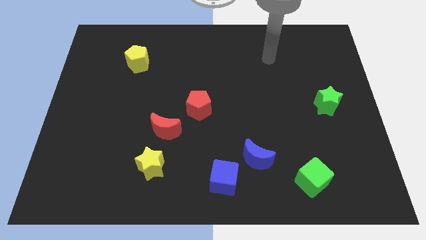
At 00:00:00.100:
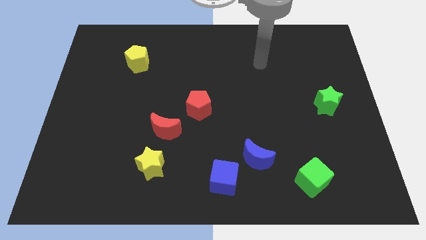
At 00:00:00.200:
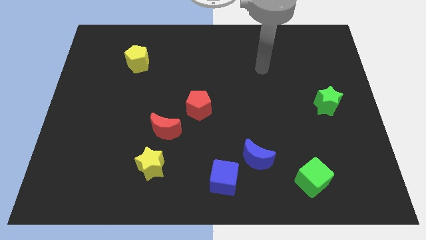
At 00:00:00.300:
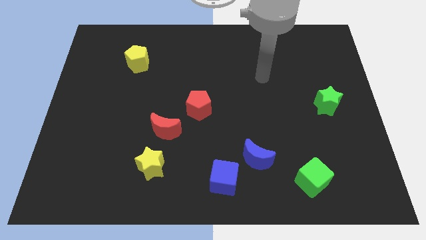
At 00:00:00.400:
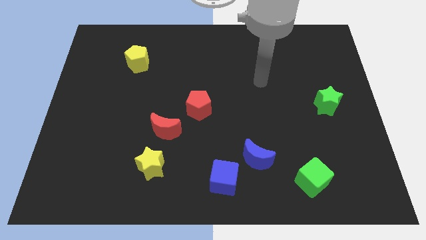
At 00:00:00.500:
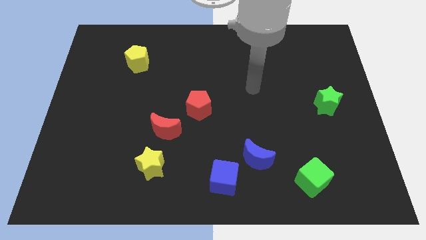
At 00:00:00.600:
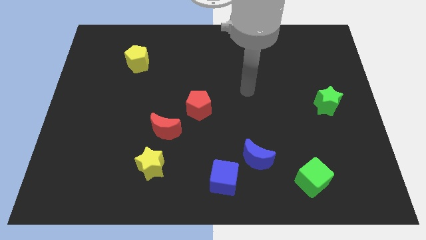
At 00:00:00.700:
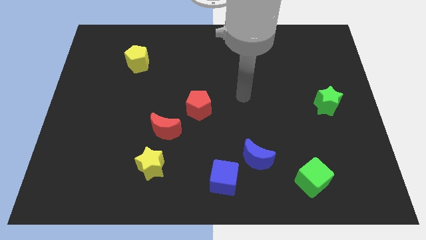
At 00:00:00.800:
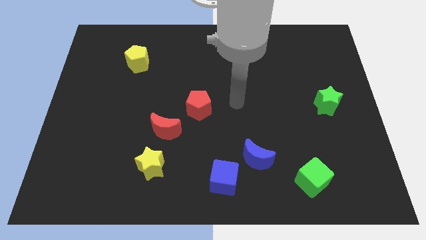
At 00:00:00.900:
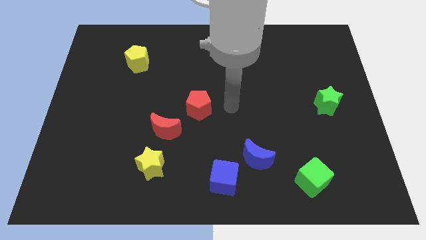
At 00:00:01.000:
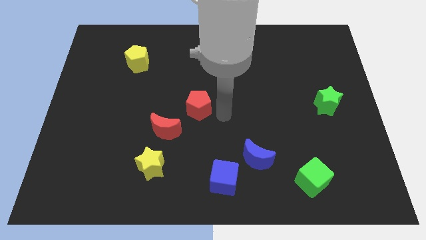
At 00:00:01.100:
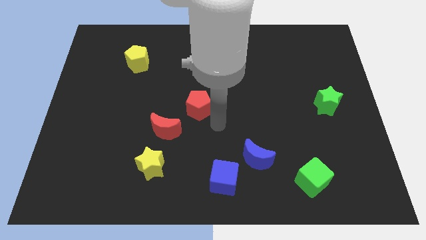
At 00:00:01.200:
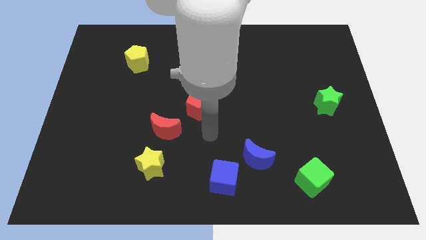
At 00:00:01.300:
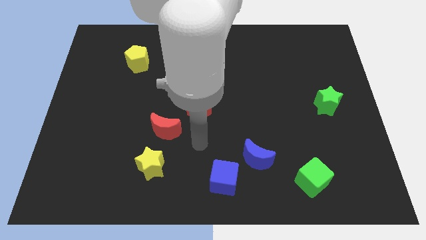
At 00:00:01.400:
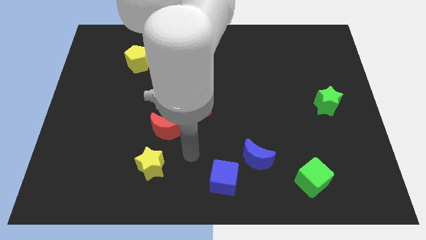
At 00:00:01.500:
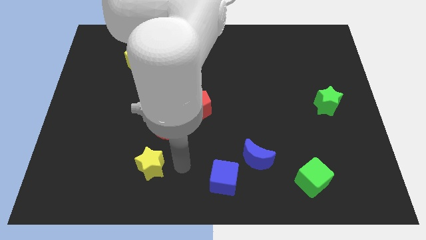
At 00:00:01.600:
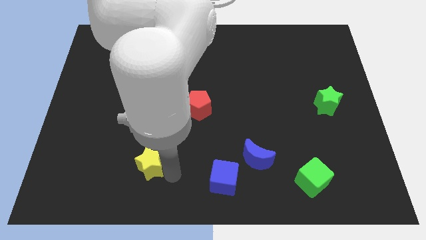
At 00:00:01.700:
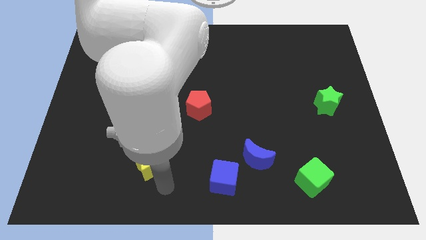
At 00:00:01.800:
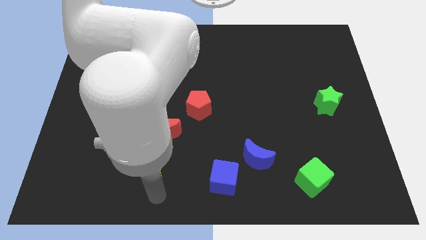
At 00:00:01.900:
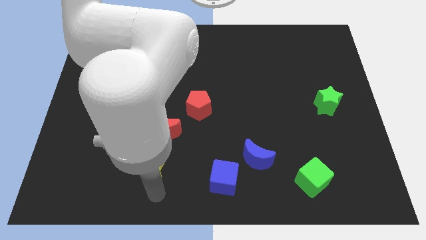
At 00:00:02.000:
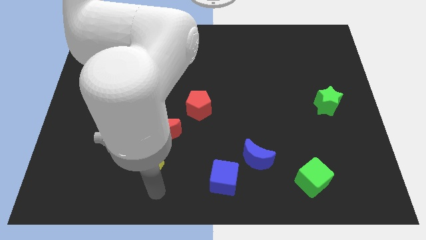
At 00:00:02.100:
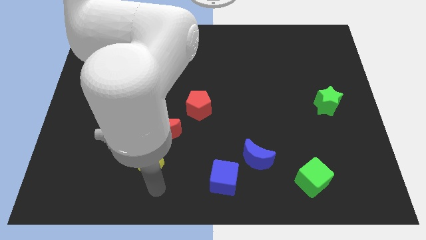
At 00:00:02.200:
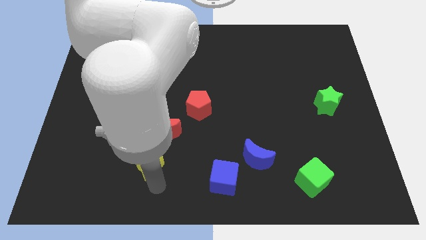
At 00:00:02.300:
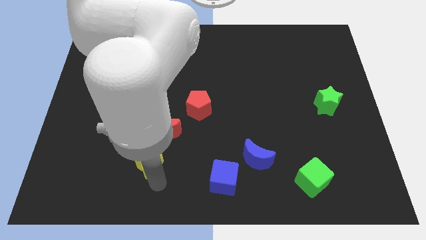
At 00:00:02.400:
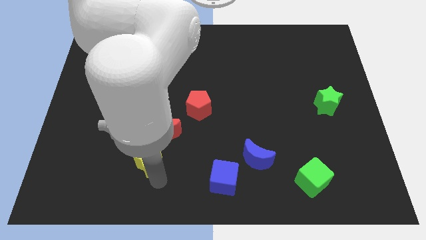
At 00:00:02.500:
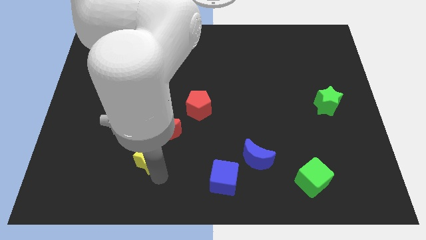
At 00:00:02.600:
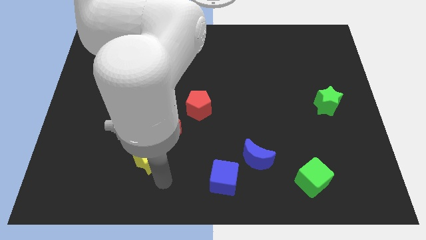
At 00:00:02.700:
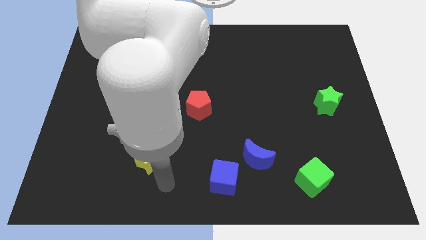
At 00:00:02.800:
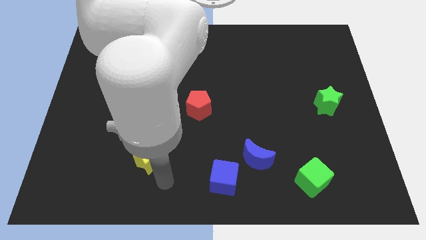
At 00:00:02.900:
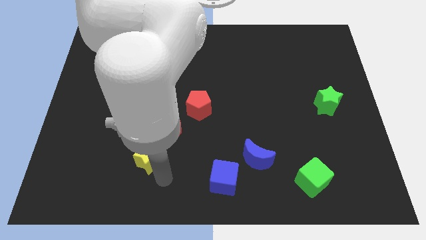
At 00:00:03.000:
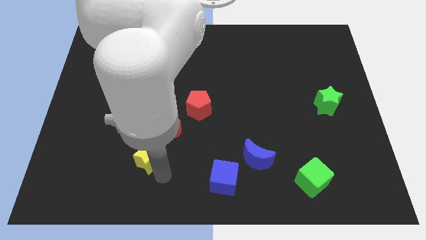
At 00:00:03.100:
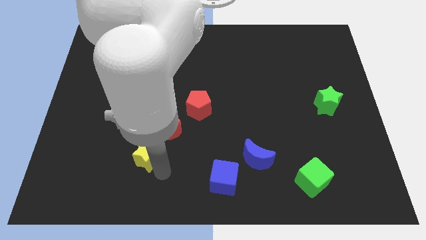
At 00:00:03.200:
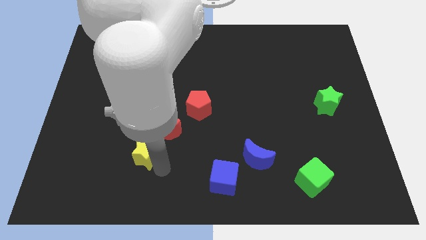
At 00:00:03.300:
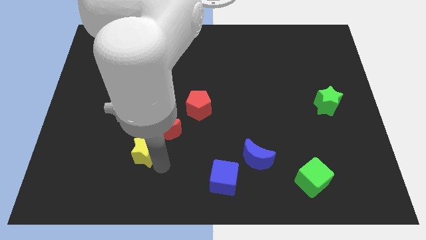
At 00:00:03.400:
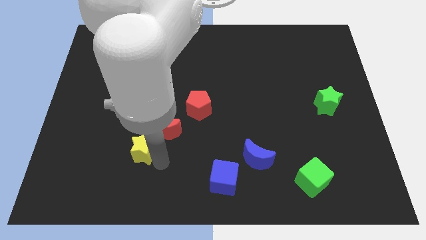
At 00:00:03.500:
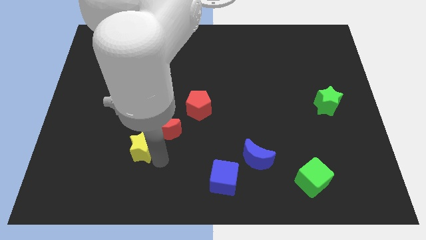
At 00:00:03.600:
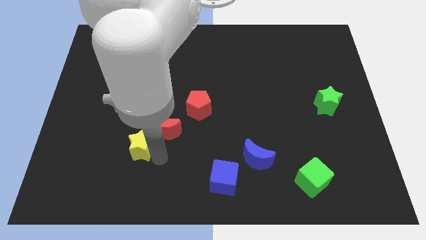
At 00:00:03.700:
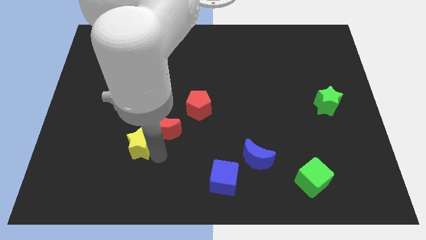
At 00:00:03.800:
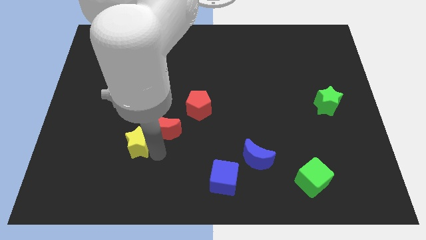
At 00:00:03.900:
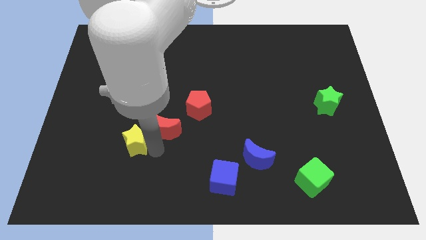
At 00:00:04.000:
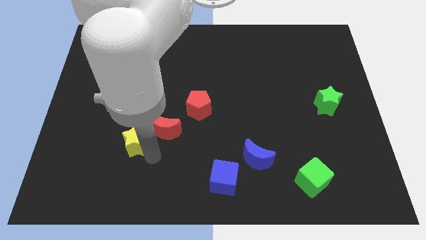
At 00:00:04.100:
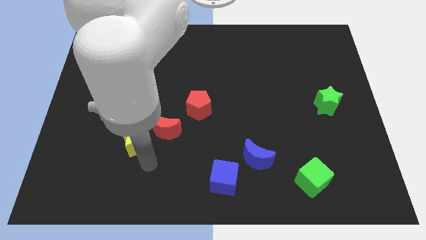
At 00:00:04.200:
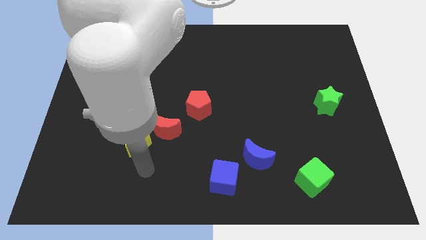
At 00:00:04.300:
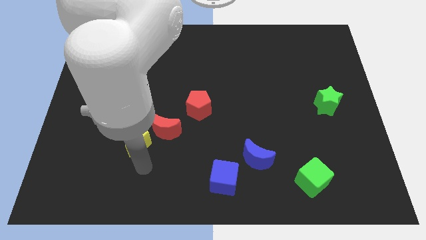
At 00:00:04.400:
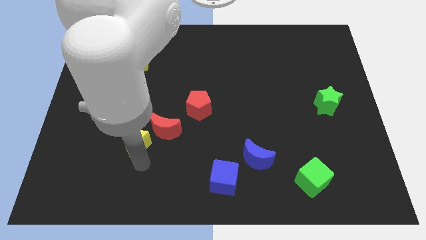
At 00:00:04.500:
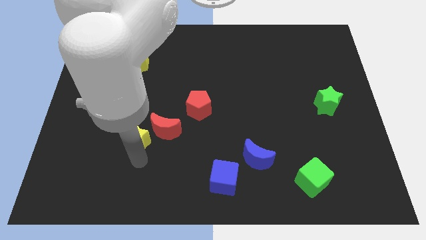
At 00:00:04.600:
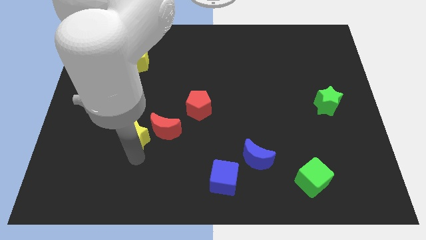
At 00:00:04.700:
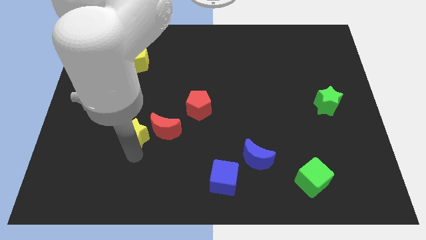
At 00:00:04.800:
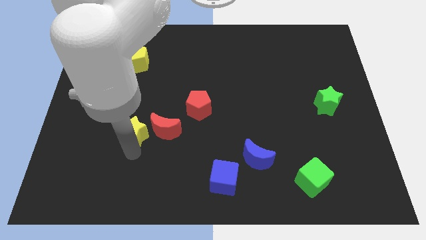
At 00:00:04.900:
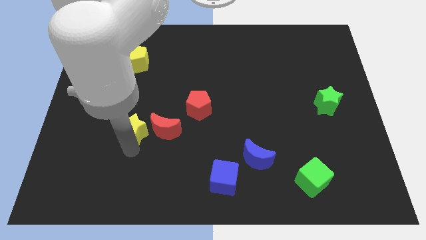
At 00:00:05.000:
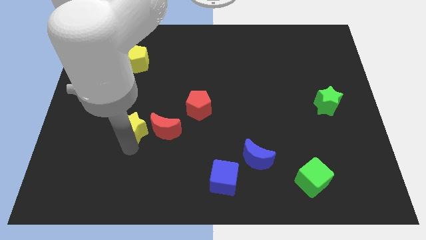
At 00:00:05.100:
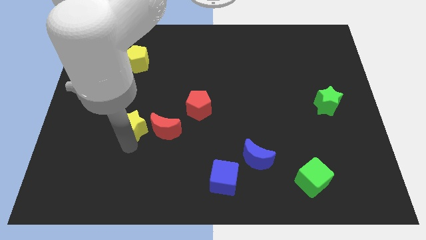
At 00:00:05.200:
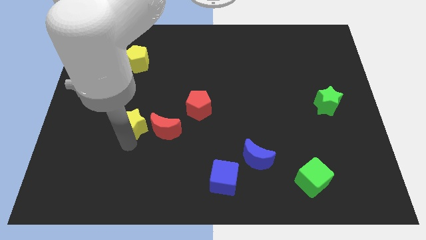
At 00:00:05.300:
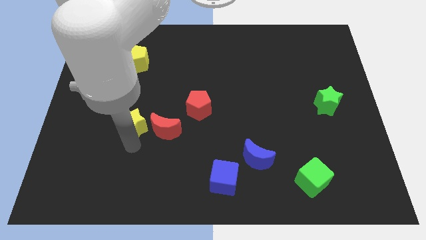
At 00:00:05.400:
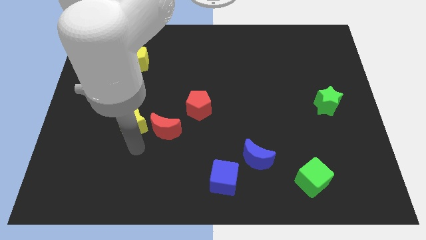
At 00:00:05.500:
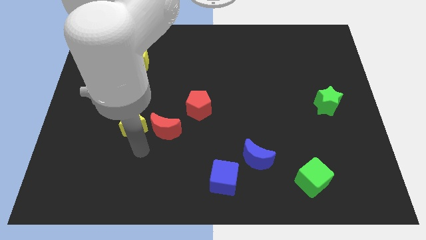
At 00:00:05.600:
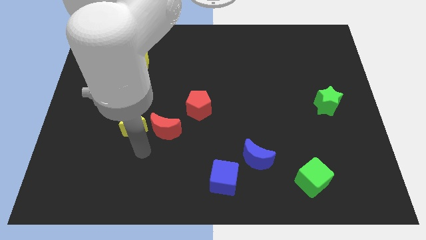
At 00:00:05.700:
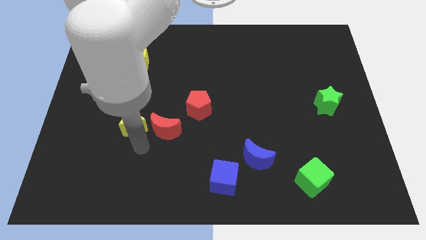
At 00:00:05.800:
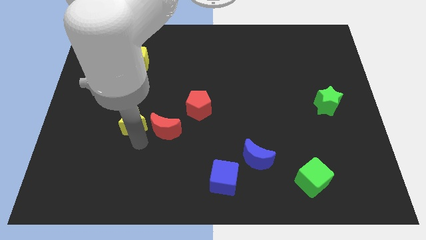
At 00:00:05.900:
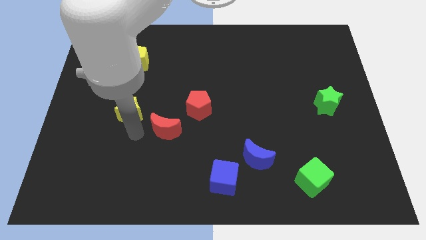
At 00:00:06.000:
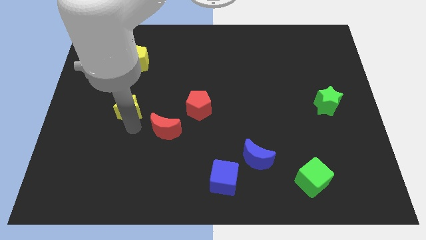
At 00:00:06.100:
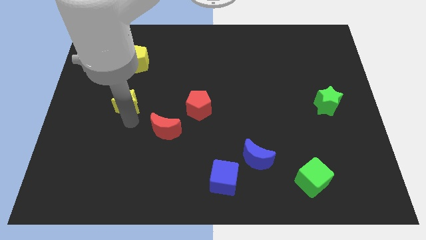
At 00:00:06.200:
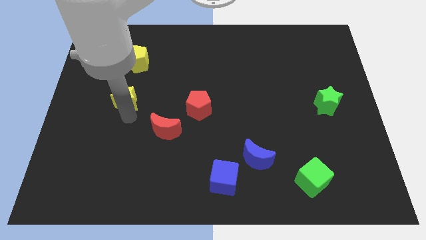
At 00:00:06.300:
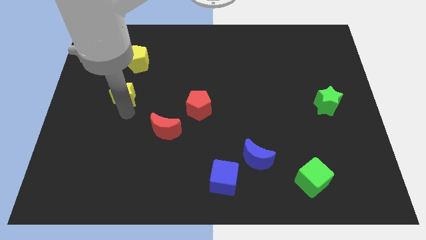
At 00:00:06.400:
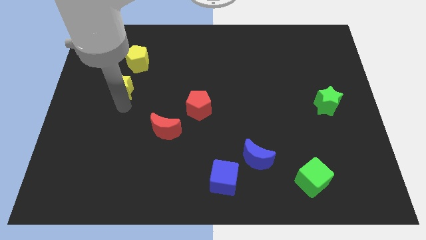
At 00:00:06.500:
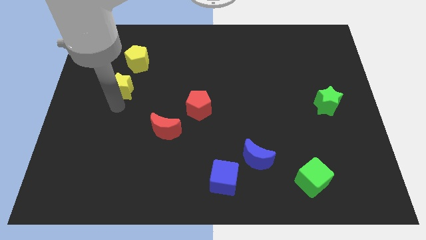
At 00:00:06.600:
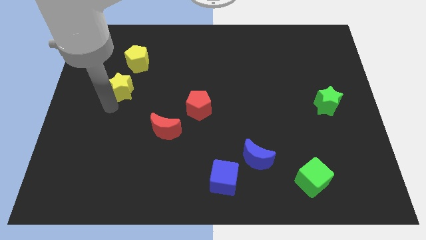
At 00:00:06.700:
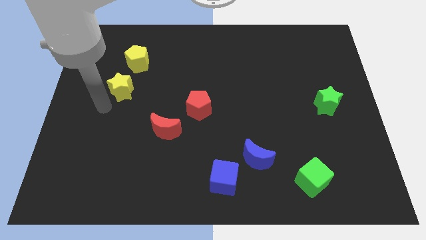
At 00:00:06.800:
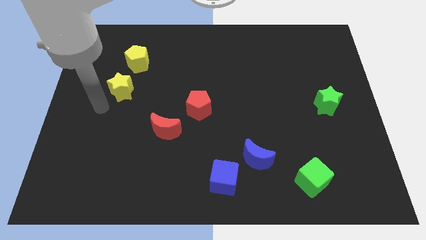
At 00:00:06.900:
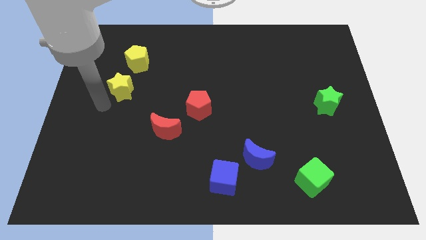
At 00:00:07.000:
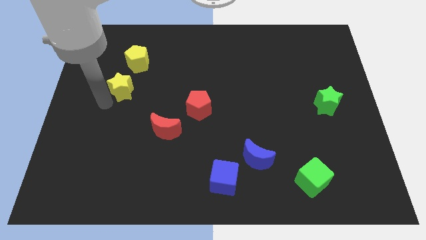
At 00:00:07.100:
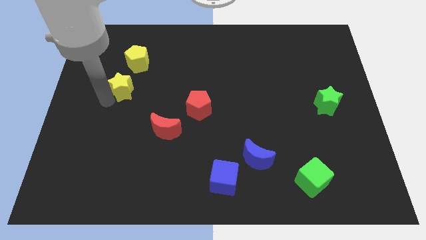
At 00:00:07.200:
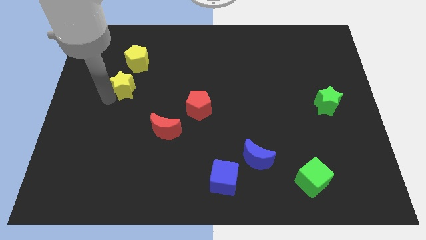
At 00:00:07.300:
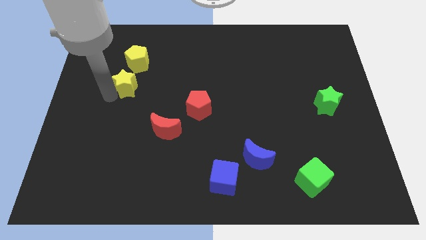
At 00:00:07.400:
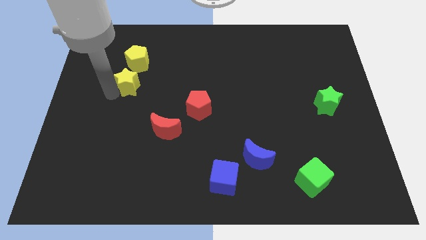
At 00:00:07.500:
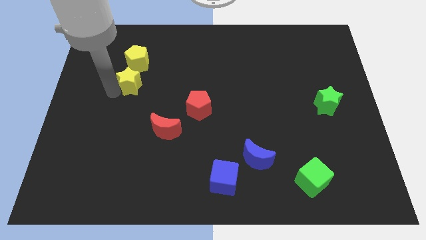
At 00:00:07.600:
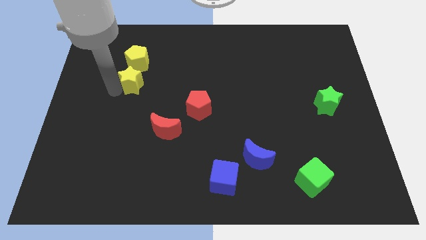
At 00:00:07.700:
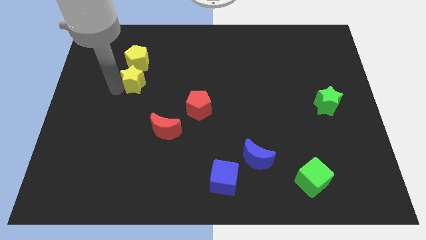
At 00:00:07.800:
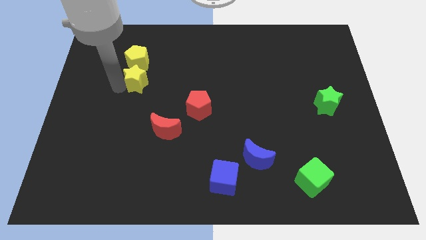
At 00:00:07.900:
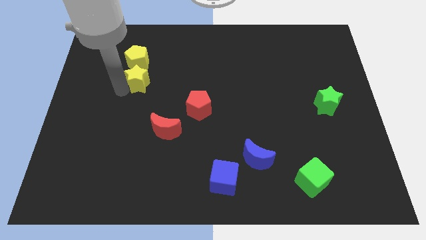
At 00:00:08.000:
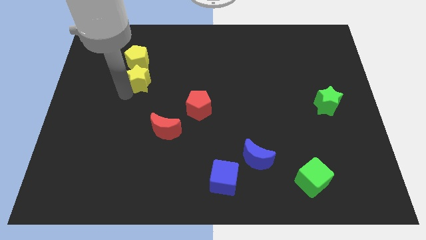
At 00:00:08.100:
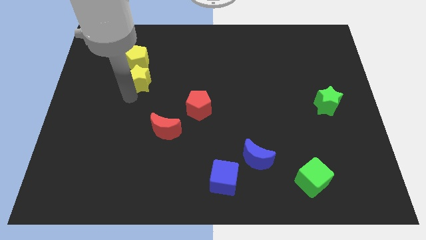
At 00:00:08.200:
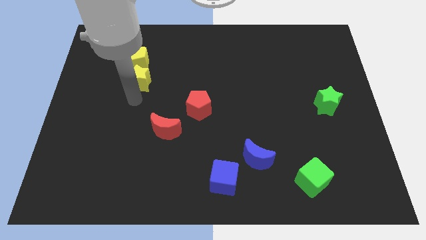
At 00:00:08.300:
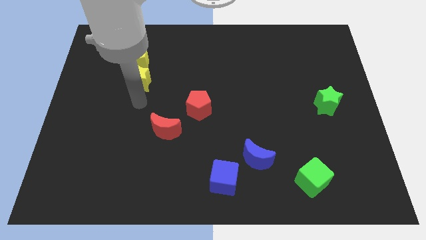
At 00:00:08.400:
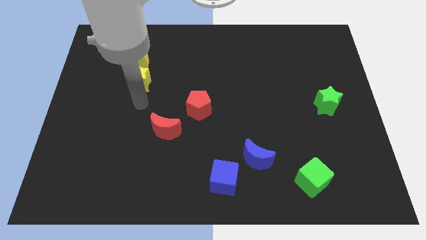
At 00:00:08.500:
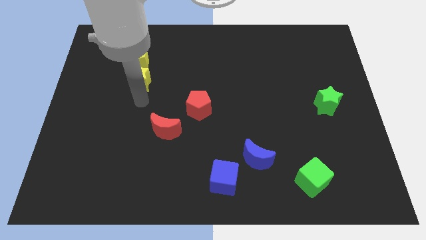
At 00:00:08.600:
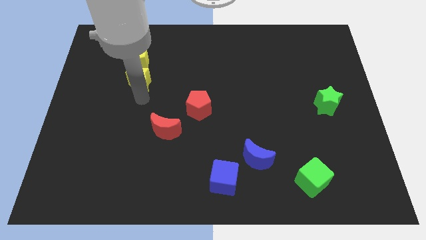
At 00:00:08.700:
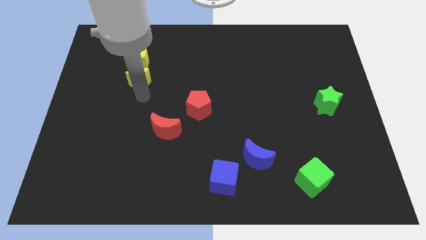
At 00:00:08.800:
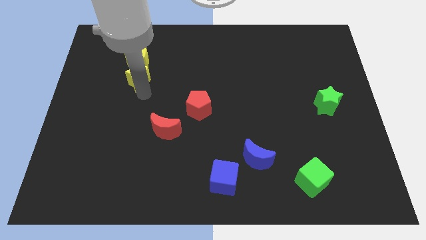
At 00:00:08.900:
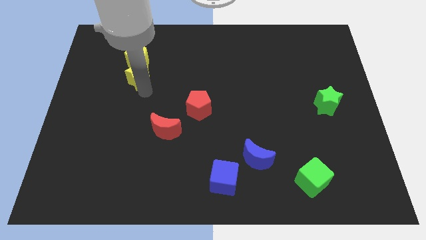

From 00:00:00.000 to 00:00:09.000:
put the yellow star towards the yellow pentagon
